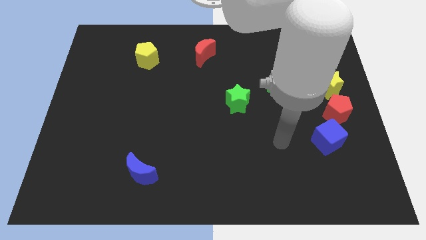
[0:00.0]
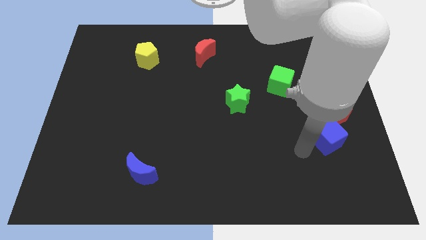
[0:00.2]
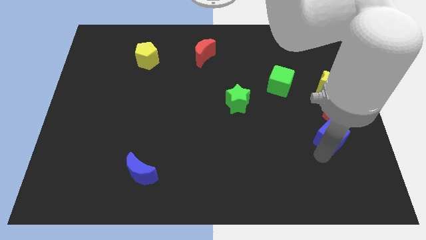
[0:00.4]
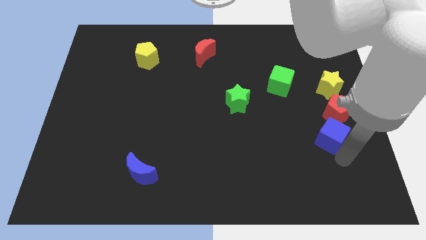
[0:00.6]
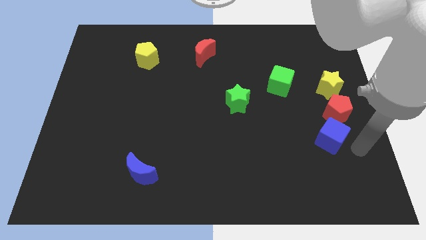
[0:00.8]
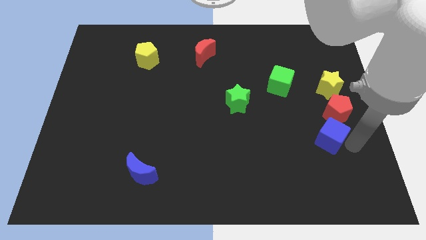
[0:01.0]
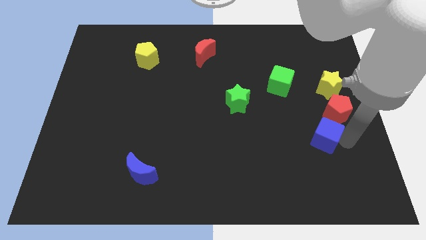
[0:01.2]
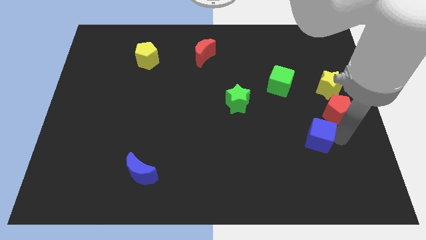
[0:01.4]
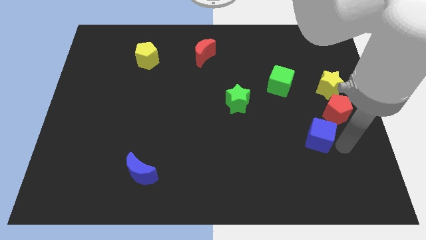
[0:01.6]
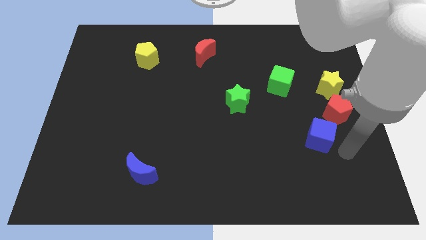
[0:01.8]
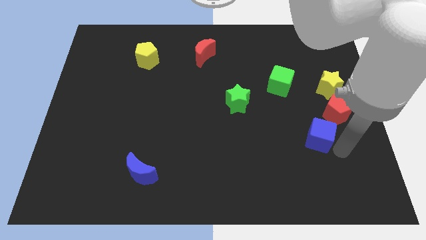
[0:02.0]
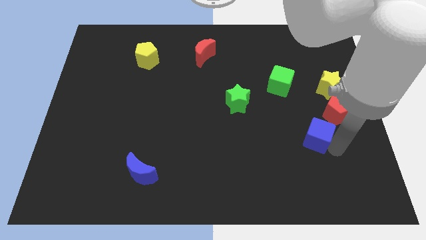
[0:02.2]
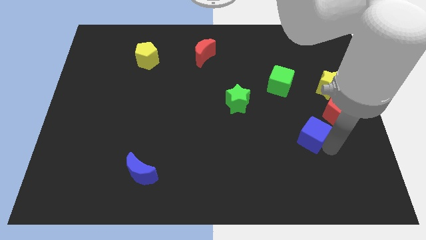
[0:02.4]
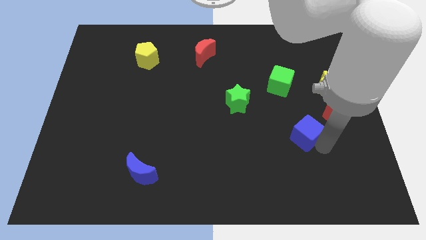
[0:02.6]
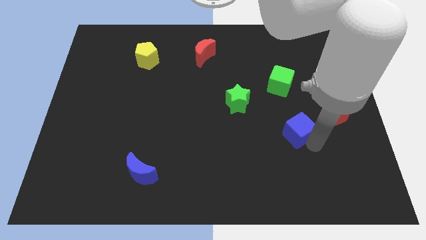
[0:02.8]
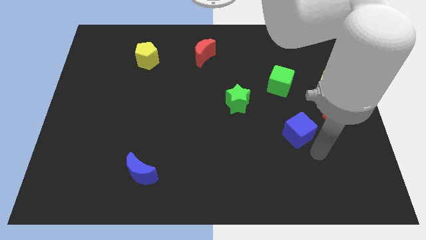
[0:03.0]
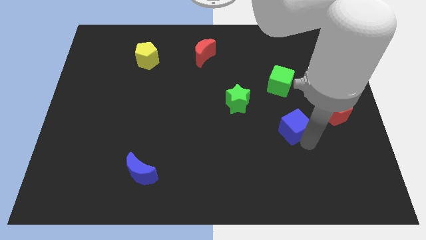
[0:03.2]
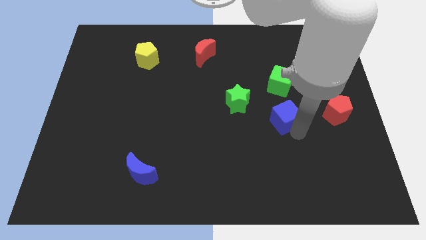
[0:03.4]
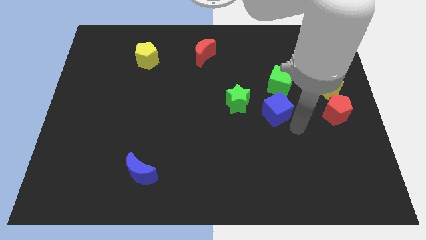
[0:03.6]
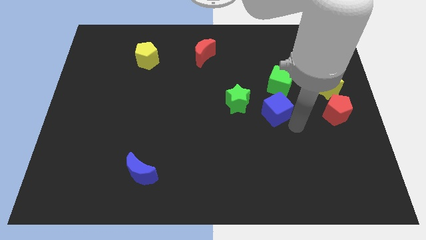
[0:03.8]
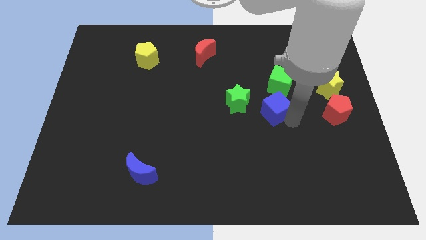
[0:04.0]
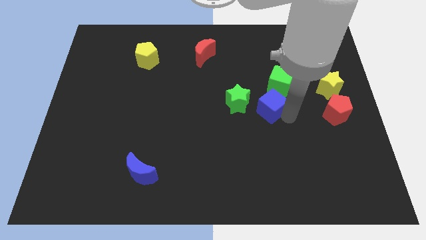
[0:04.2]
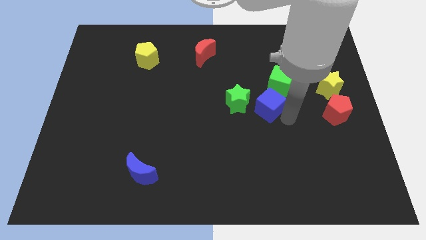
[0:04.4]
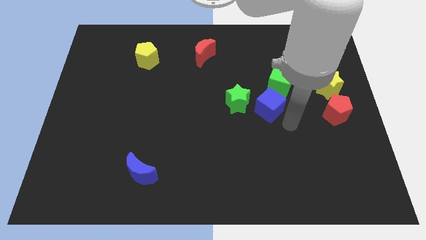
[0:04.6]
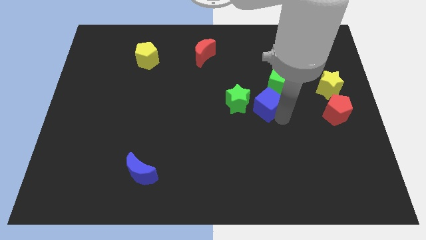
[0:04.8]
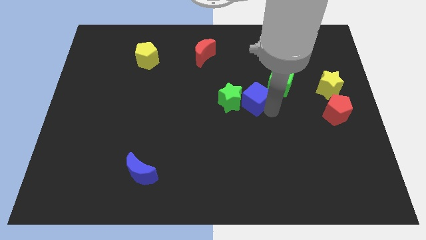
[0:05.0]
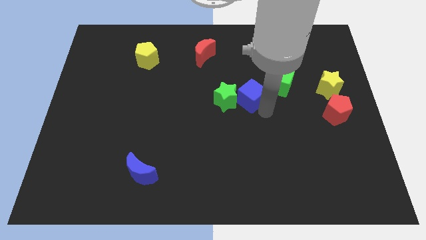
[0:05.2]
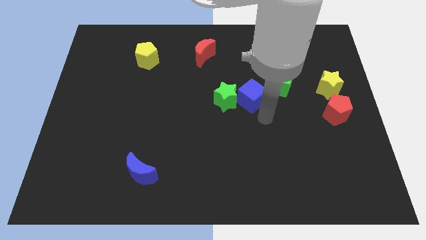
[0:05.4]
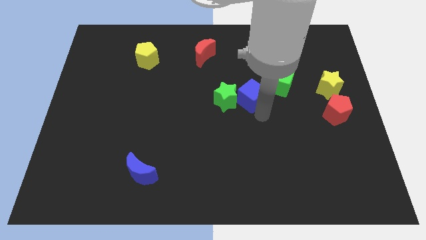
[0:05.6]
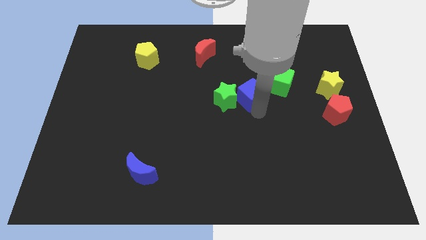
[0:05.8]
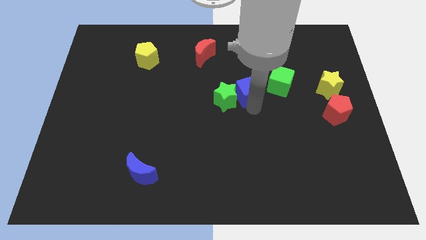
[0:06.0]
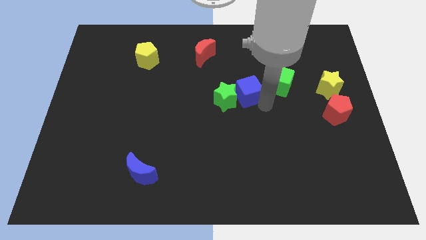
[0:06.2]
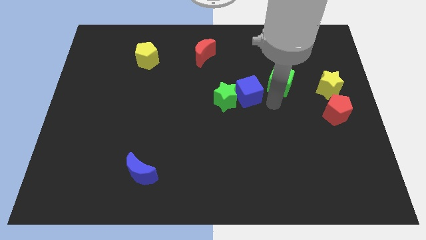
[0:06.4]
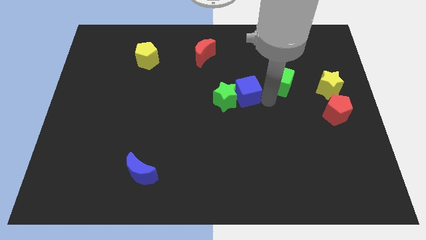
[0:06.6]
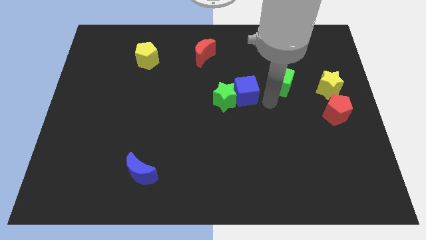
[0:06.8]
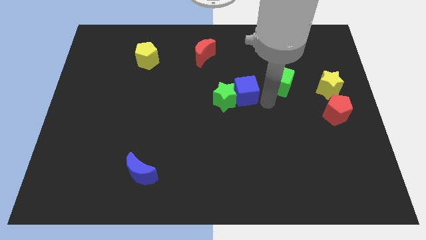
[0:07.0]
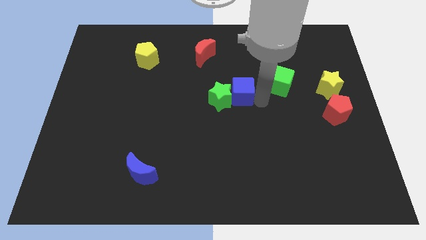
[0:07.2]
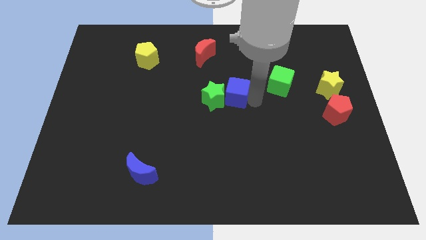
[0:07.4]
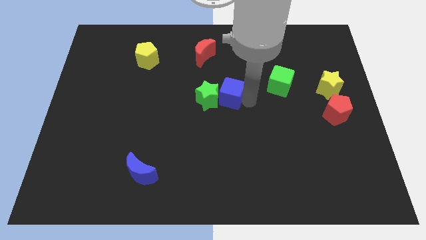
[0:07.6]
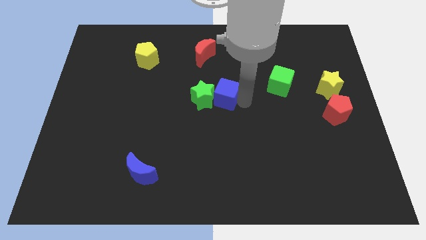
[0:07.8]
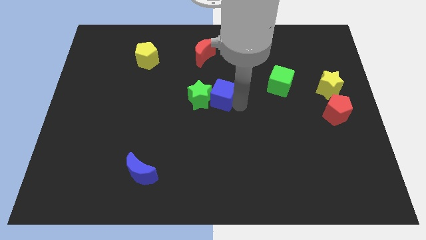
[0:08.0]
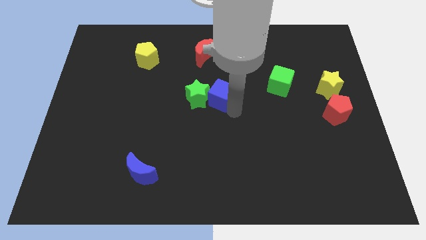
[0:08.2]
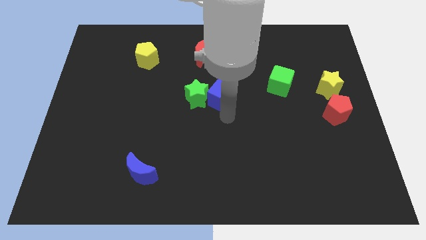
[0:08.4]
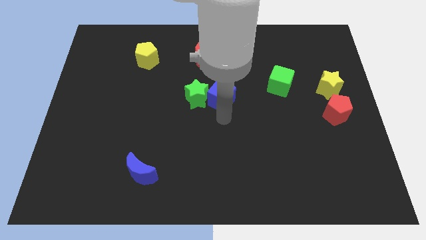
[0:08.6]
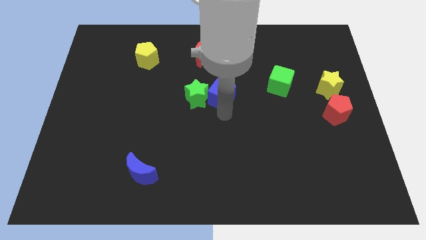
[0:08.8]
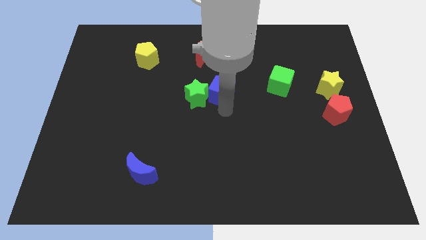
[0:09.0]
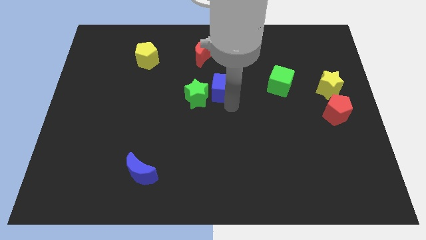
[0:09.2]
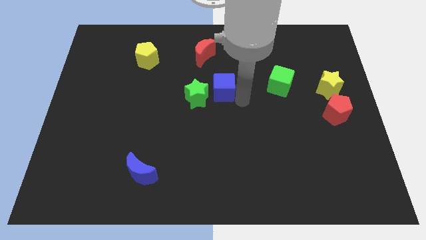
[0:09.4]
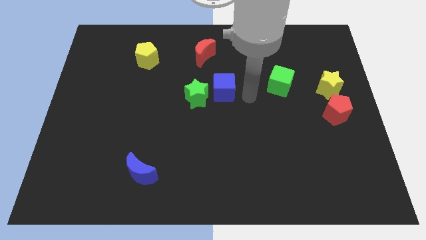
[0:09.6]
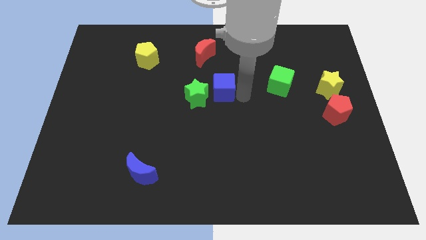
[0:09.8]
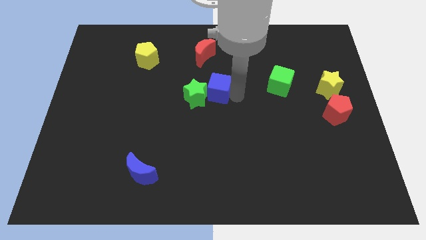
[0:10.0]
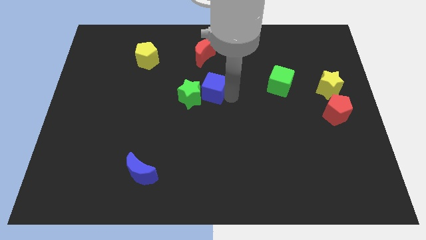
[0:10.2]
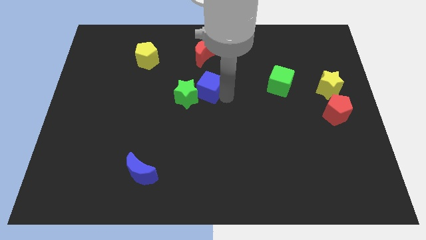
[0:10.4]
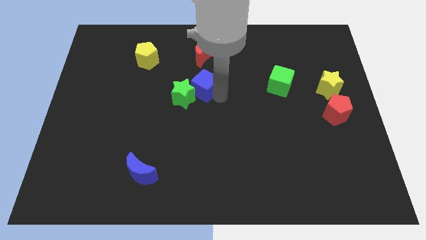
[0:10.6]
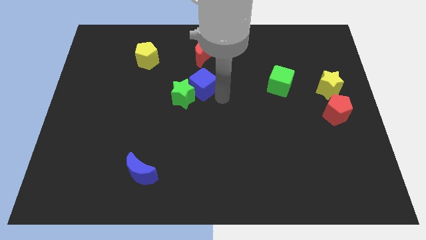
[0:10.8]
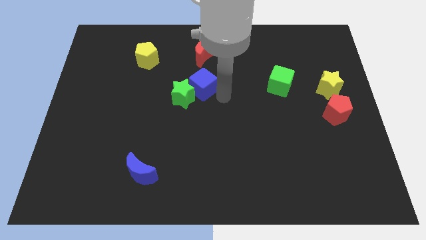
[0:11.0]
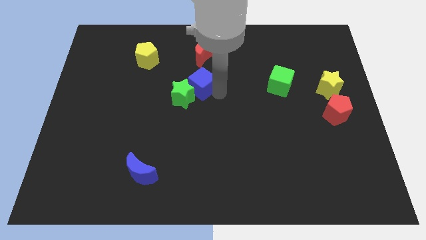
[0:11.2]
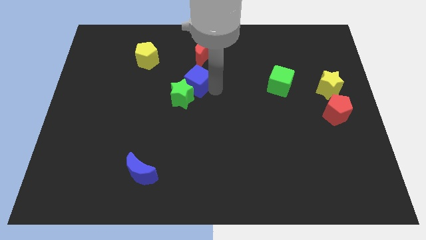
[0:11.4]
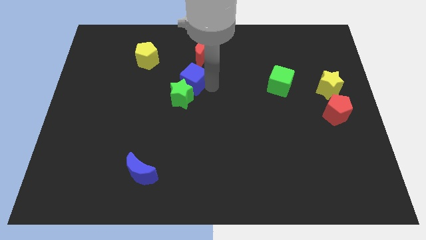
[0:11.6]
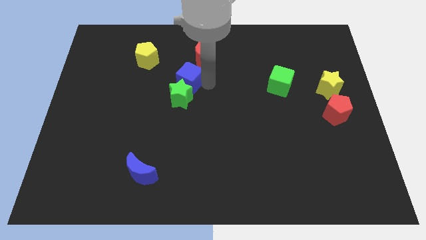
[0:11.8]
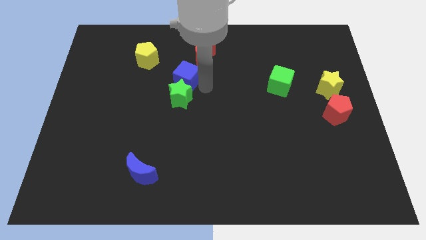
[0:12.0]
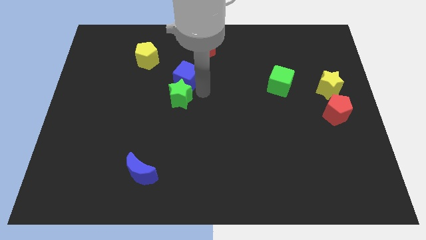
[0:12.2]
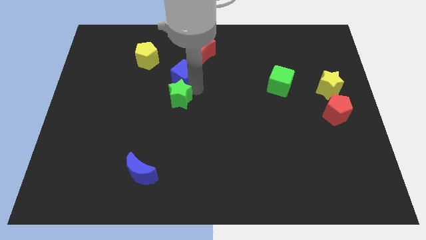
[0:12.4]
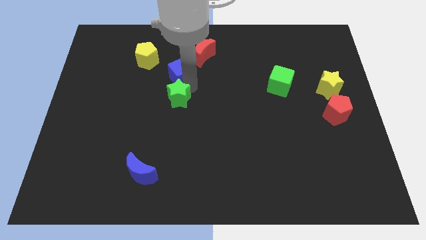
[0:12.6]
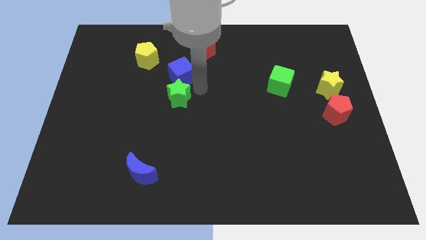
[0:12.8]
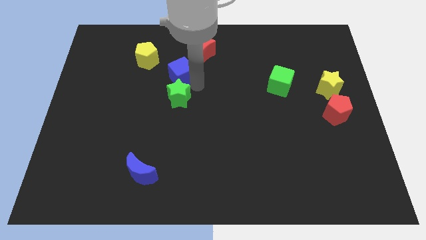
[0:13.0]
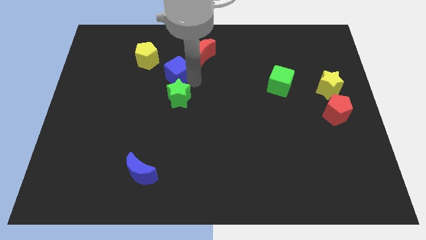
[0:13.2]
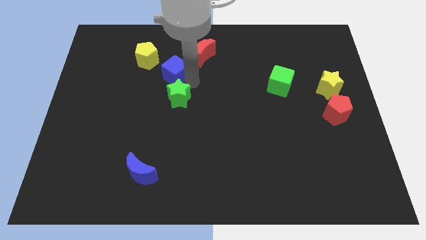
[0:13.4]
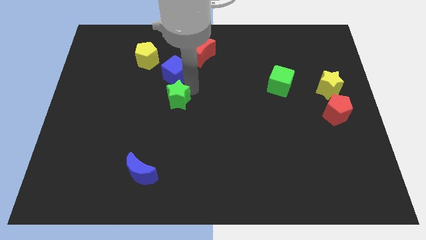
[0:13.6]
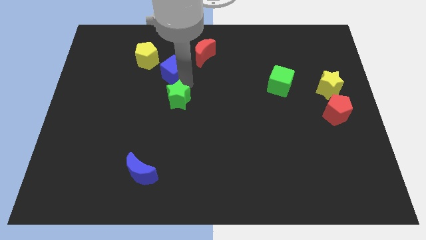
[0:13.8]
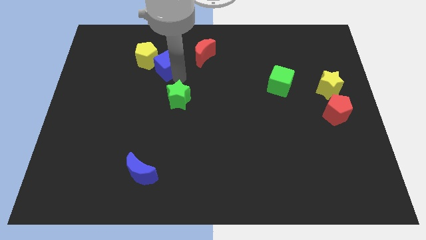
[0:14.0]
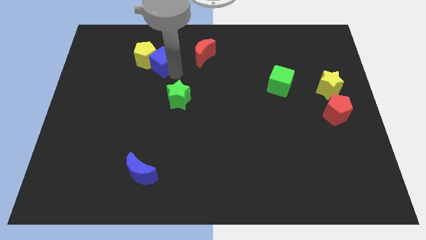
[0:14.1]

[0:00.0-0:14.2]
slide the blue cube to the yellow pentagon
